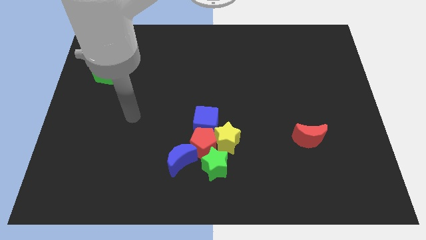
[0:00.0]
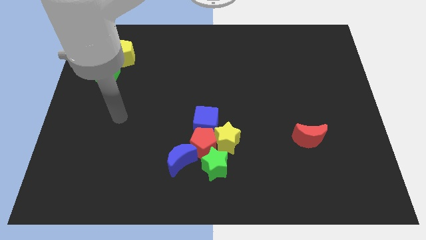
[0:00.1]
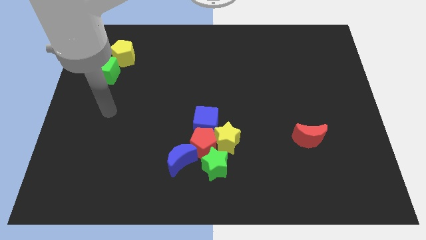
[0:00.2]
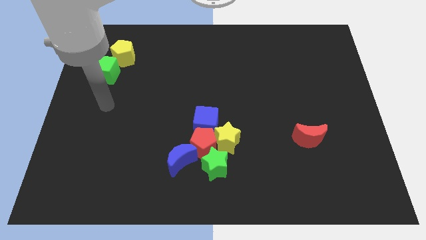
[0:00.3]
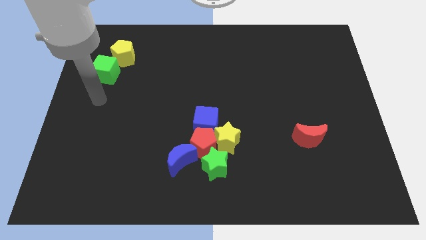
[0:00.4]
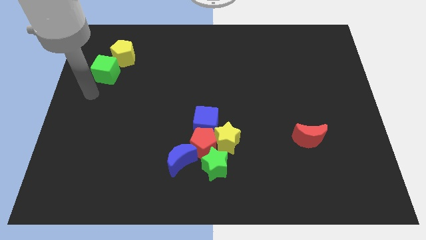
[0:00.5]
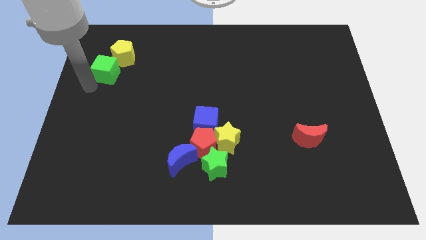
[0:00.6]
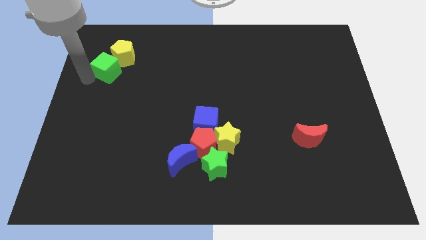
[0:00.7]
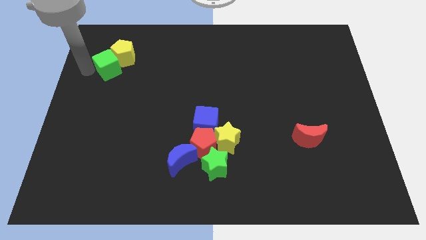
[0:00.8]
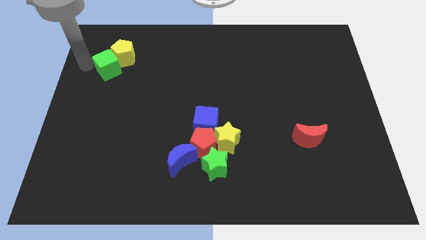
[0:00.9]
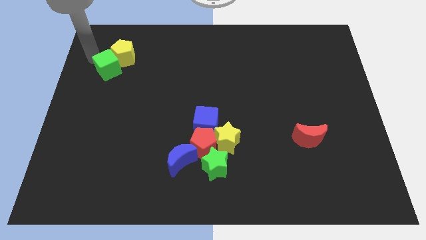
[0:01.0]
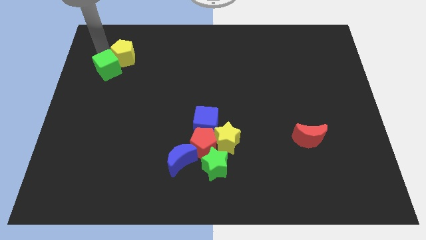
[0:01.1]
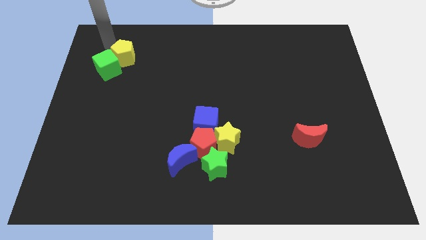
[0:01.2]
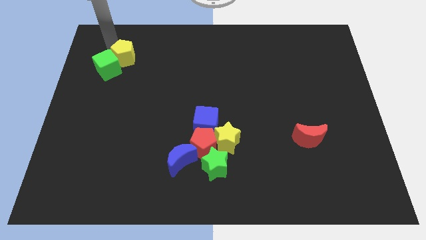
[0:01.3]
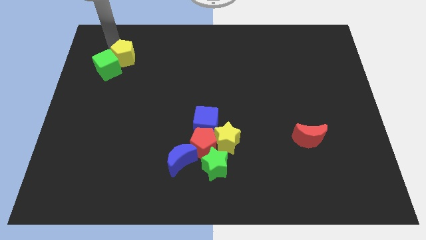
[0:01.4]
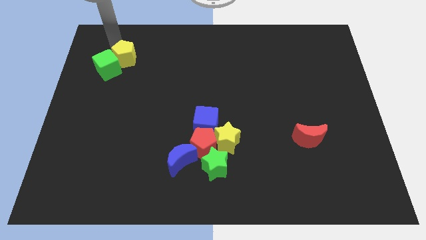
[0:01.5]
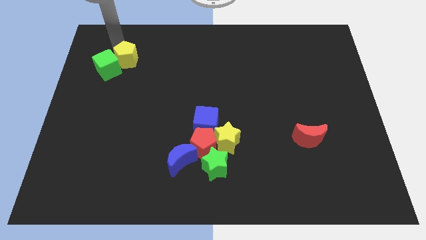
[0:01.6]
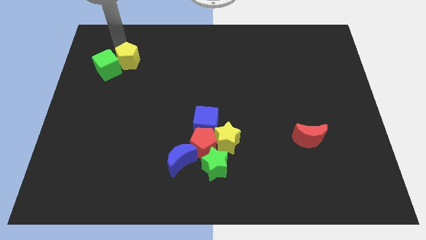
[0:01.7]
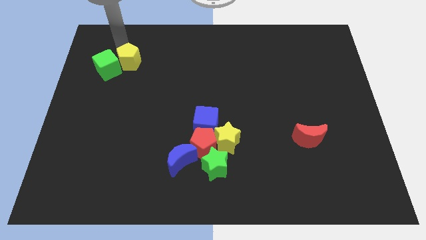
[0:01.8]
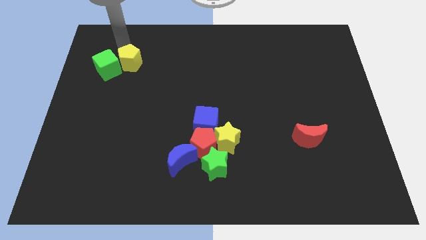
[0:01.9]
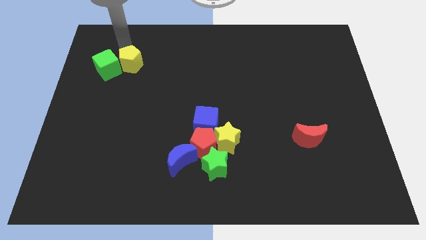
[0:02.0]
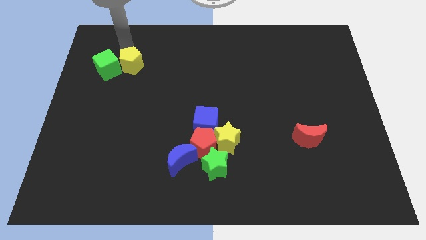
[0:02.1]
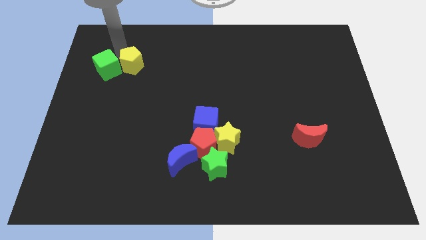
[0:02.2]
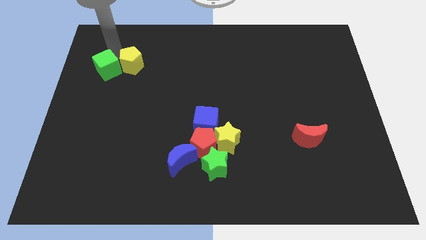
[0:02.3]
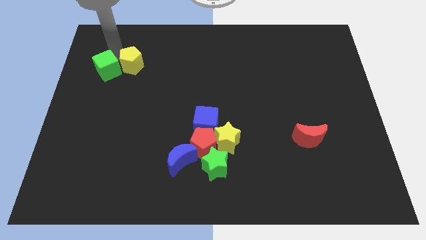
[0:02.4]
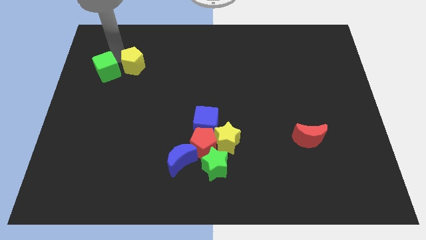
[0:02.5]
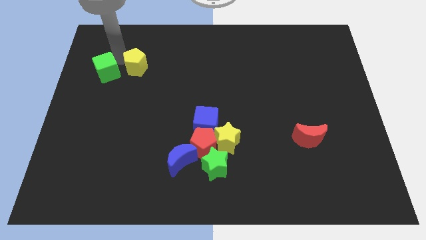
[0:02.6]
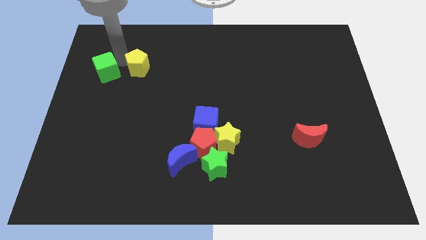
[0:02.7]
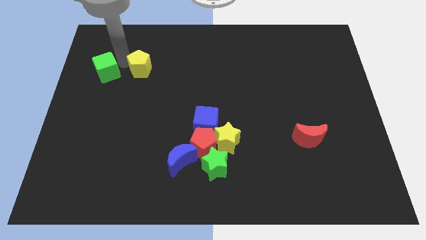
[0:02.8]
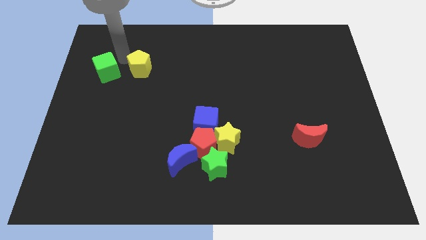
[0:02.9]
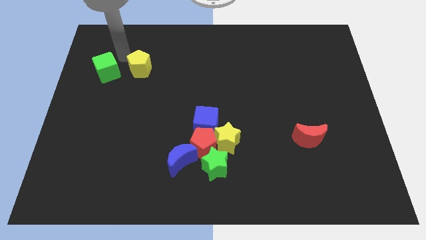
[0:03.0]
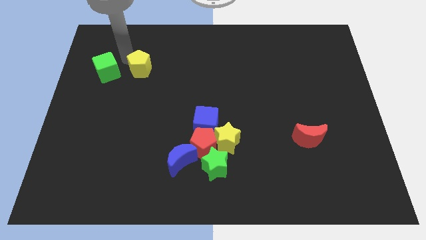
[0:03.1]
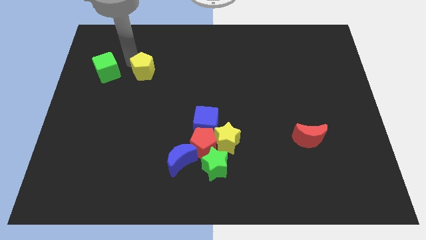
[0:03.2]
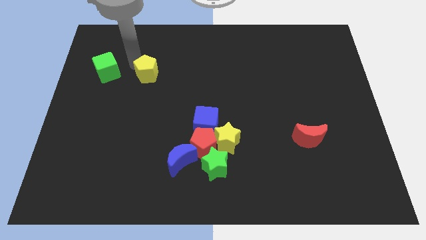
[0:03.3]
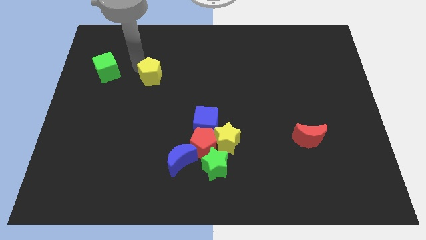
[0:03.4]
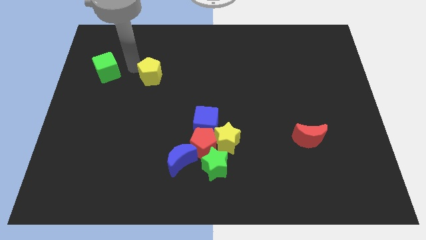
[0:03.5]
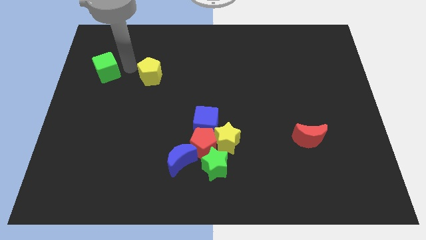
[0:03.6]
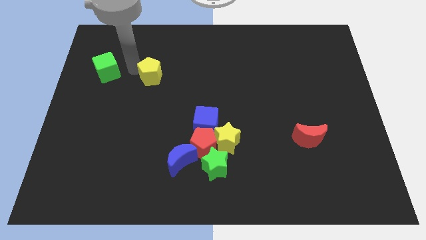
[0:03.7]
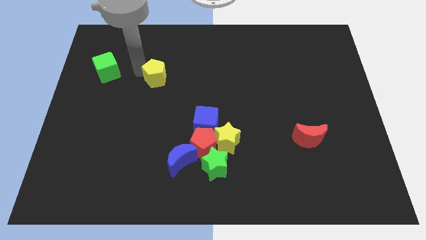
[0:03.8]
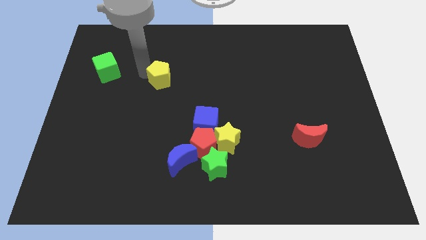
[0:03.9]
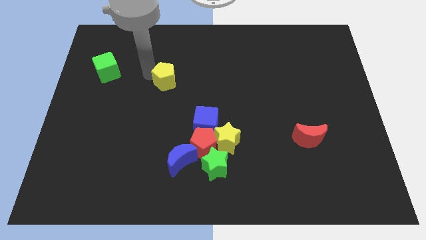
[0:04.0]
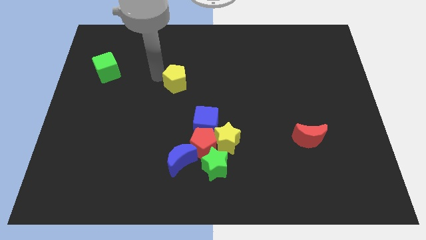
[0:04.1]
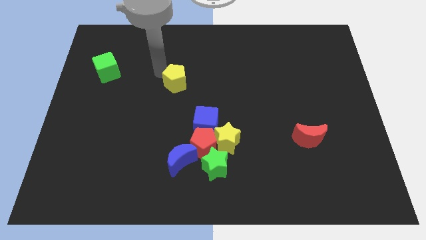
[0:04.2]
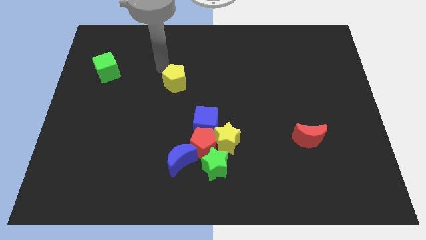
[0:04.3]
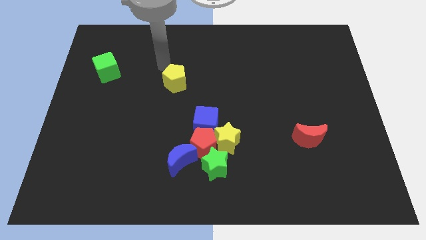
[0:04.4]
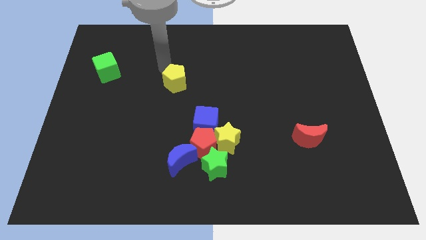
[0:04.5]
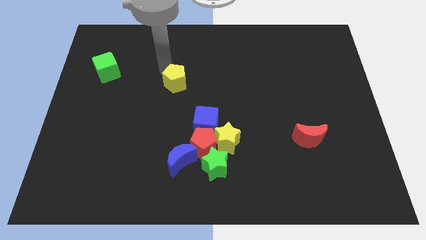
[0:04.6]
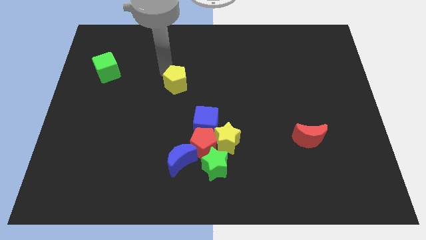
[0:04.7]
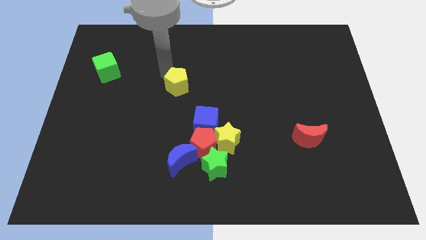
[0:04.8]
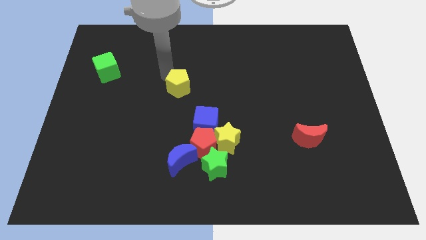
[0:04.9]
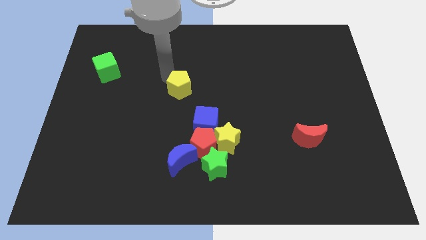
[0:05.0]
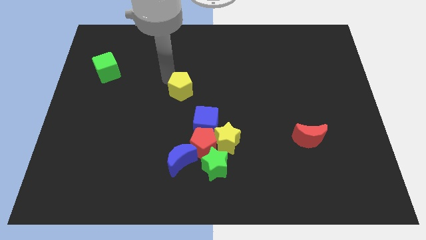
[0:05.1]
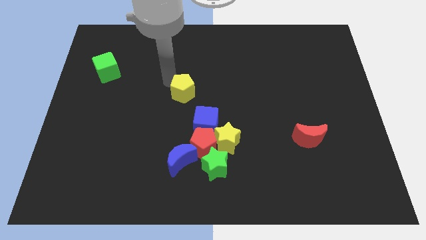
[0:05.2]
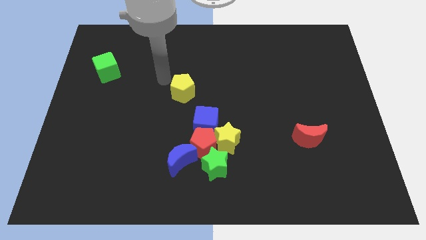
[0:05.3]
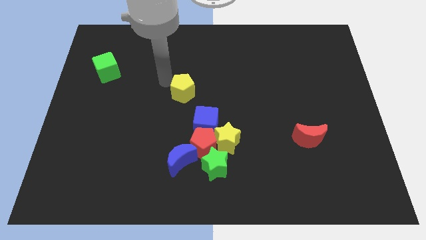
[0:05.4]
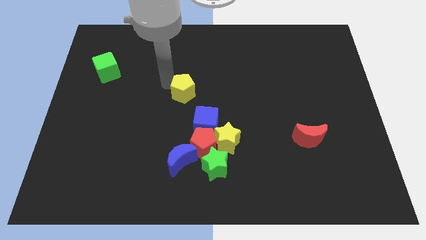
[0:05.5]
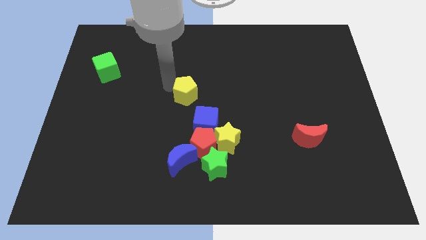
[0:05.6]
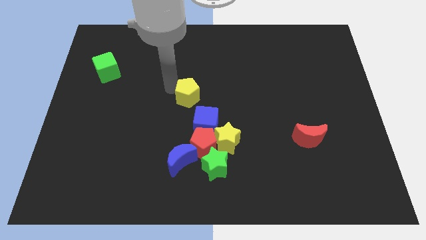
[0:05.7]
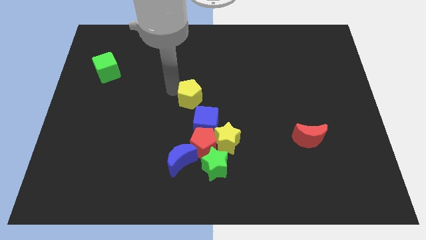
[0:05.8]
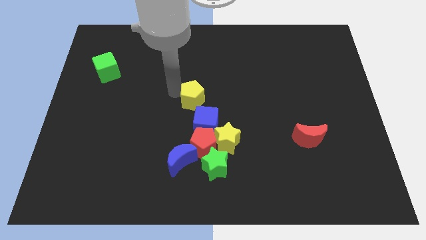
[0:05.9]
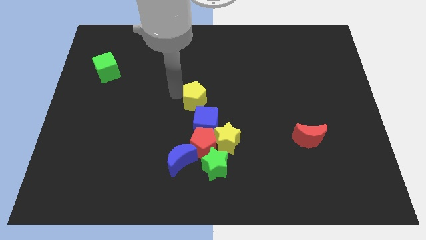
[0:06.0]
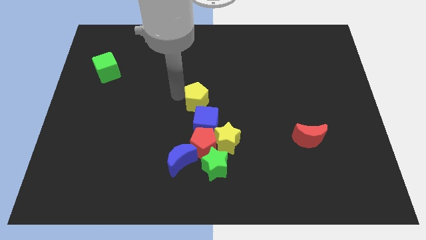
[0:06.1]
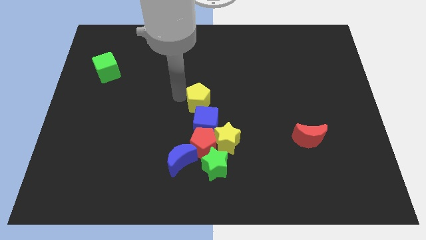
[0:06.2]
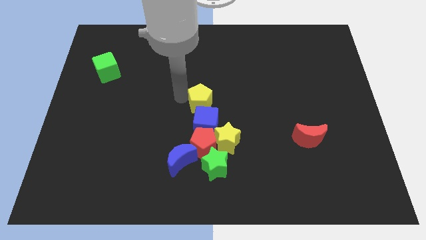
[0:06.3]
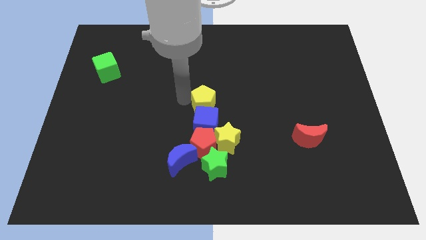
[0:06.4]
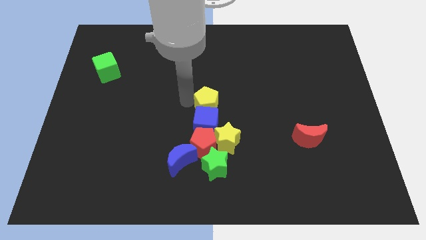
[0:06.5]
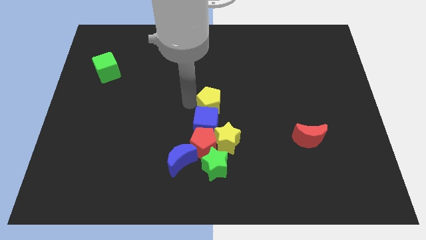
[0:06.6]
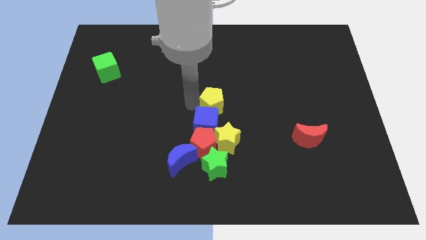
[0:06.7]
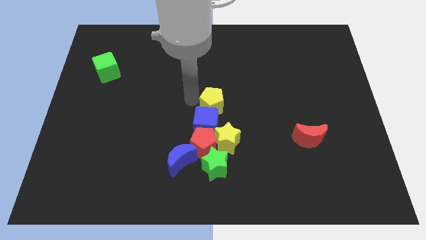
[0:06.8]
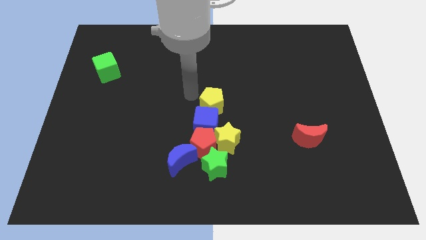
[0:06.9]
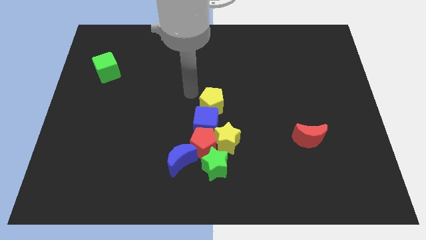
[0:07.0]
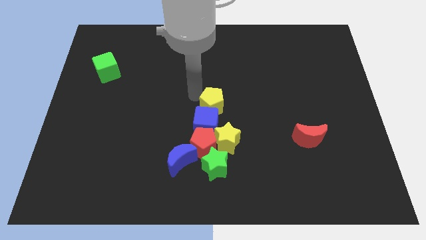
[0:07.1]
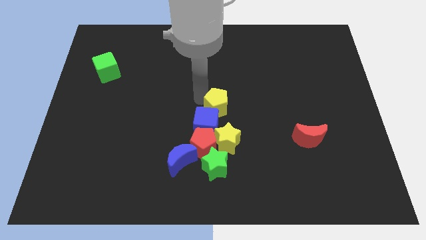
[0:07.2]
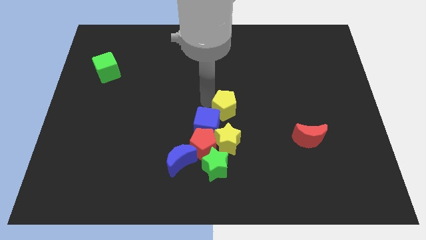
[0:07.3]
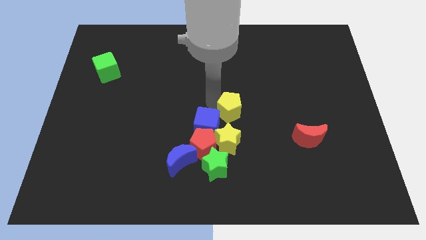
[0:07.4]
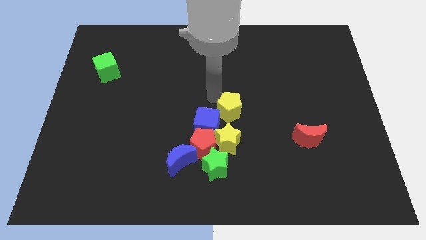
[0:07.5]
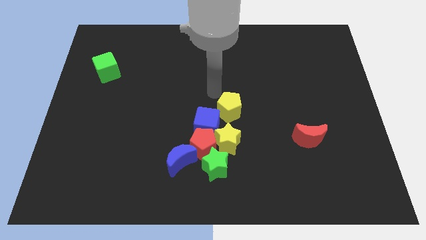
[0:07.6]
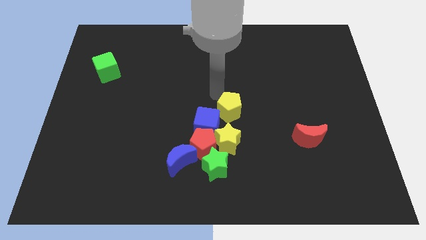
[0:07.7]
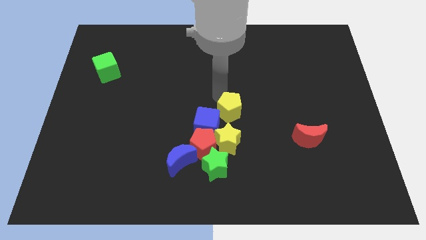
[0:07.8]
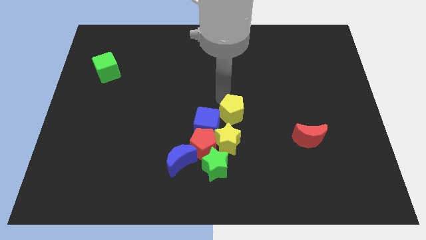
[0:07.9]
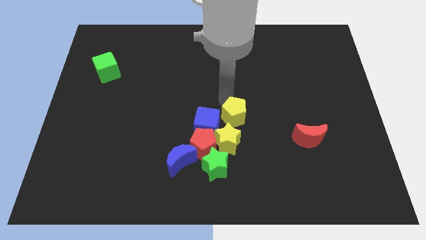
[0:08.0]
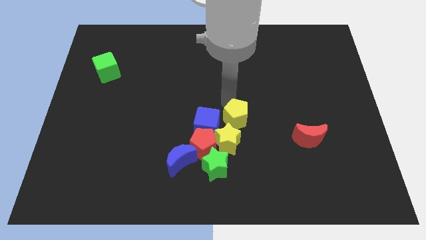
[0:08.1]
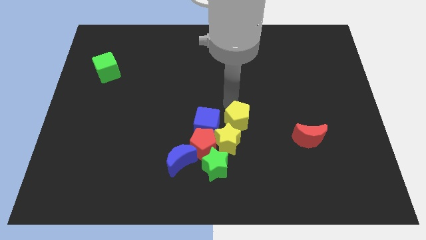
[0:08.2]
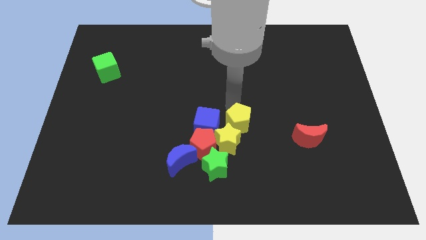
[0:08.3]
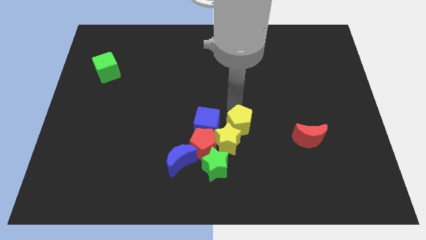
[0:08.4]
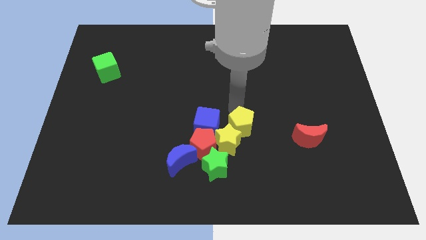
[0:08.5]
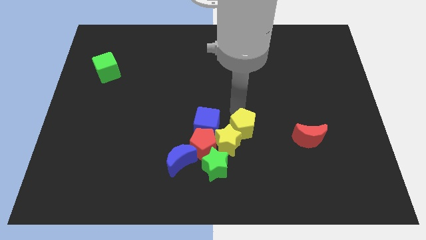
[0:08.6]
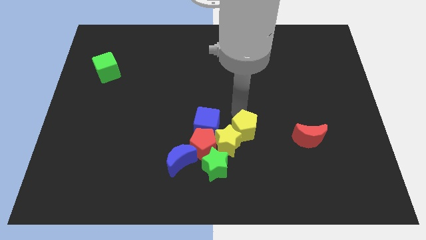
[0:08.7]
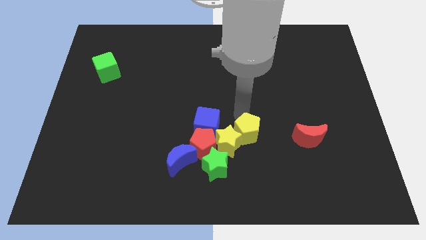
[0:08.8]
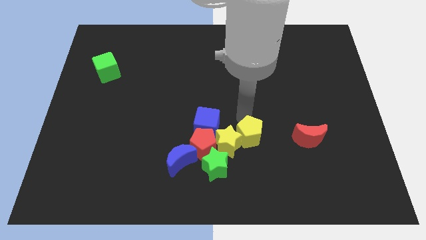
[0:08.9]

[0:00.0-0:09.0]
put the yellow pentagon to the bottom right of the blue cube
